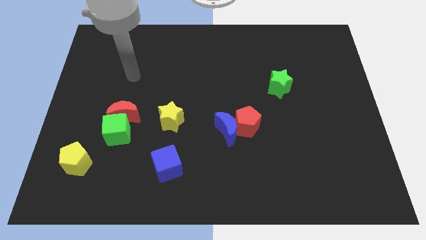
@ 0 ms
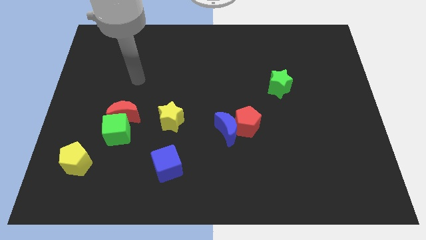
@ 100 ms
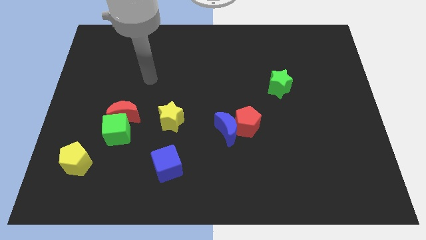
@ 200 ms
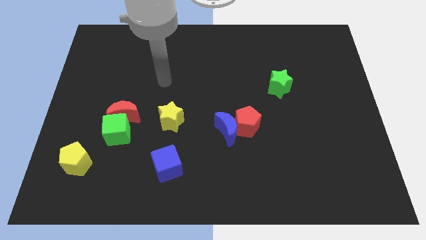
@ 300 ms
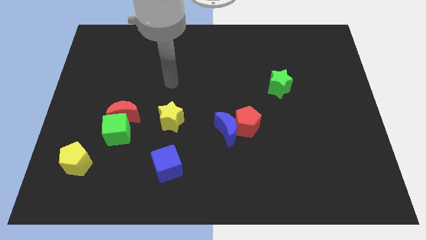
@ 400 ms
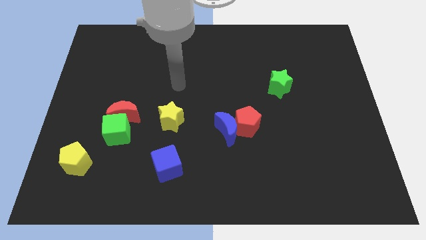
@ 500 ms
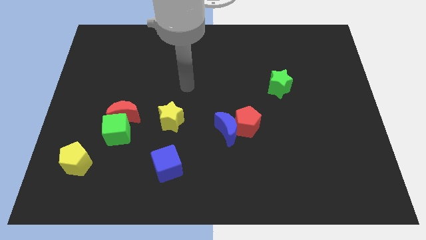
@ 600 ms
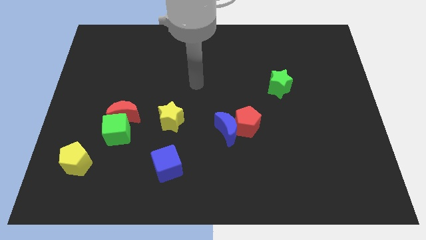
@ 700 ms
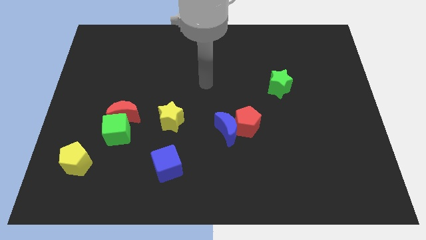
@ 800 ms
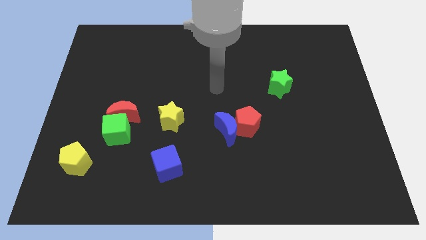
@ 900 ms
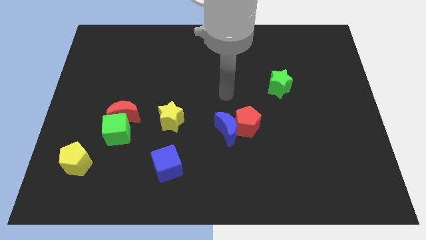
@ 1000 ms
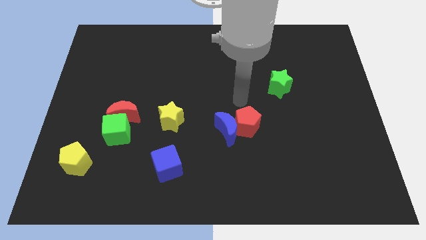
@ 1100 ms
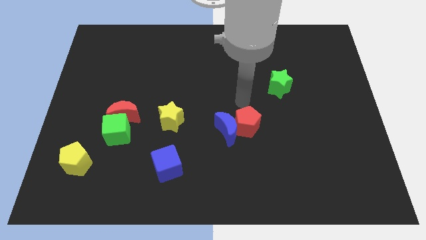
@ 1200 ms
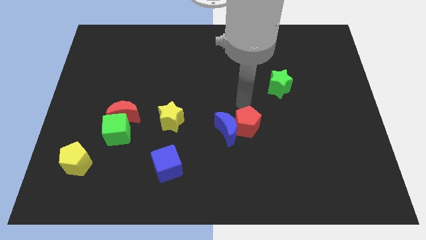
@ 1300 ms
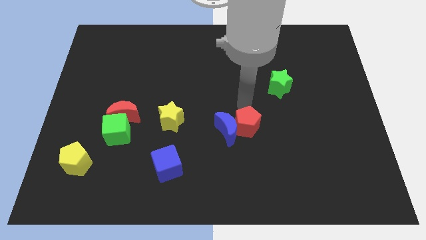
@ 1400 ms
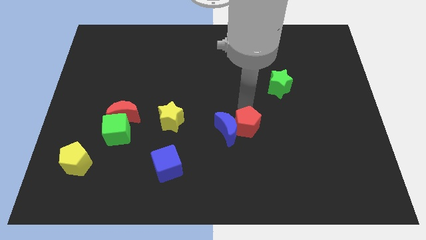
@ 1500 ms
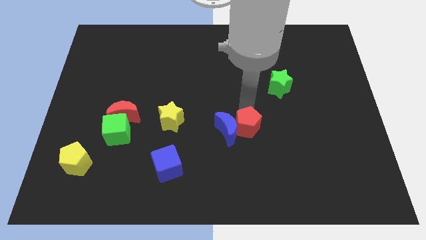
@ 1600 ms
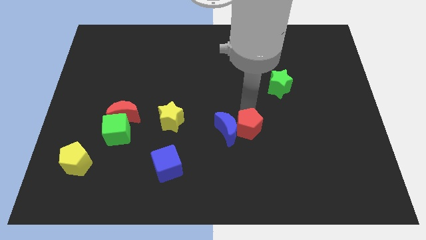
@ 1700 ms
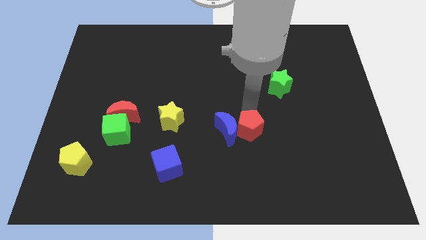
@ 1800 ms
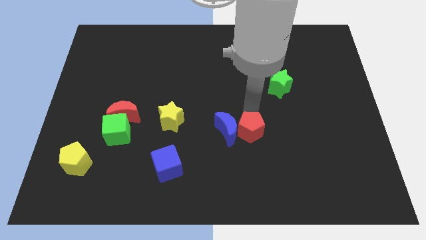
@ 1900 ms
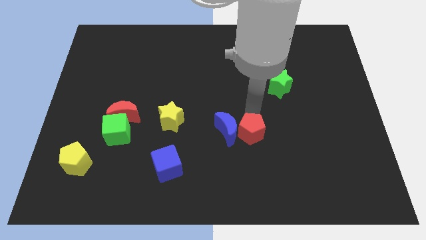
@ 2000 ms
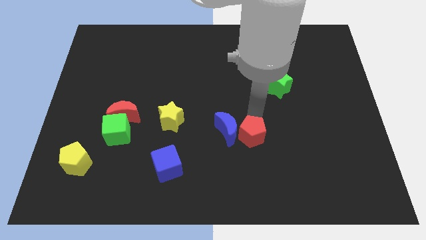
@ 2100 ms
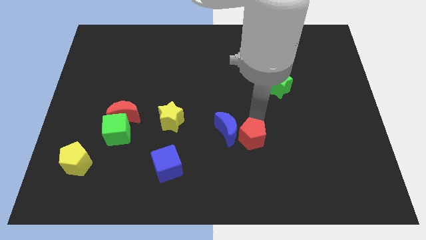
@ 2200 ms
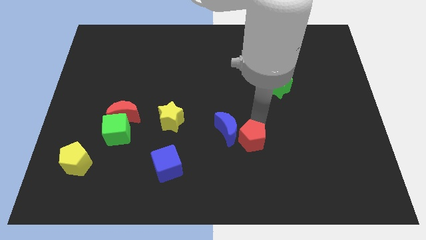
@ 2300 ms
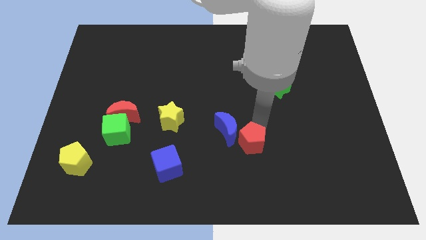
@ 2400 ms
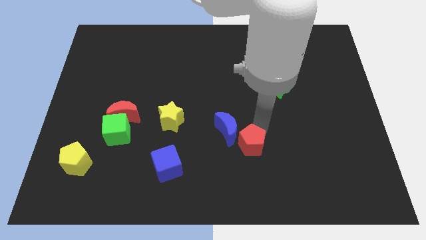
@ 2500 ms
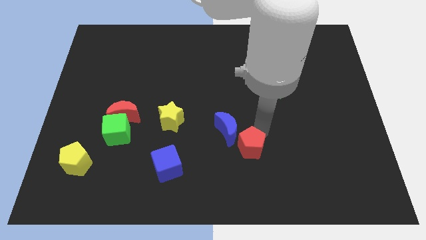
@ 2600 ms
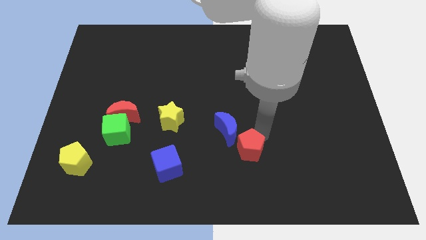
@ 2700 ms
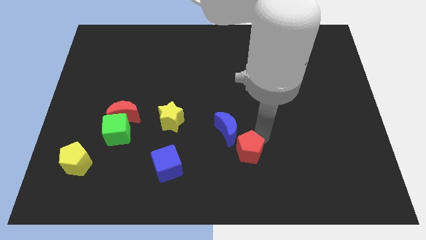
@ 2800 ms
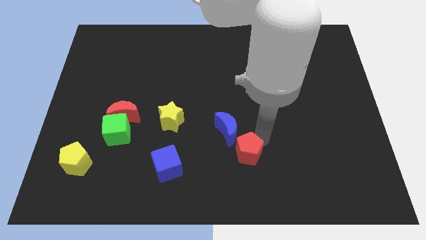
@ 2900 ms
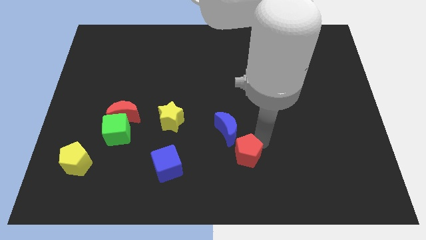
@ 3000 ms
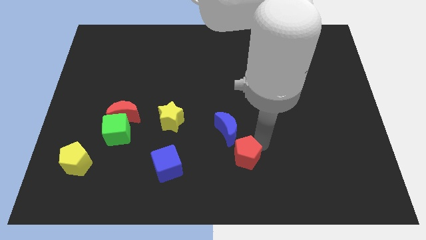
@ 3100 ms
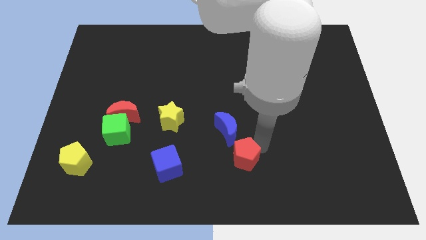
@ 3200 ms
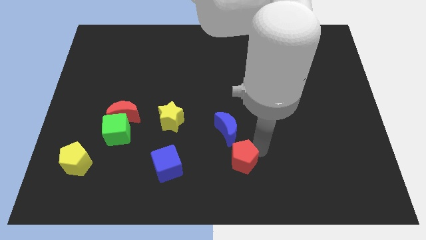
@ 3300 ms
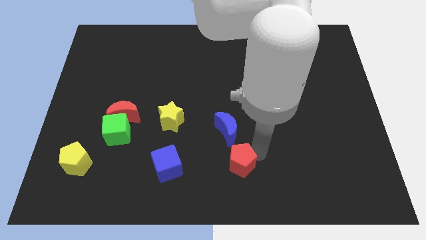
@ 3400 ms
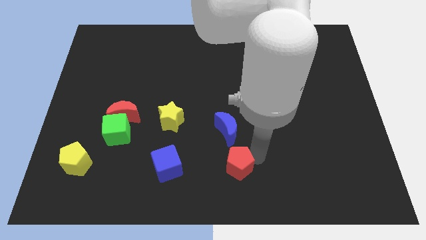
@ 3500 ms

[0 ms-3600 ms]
push the red pentagon down and to the left diagonally a bit

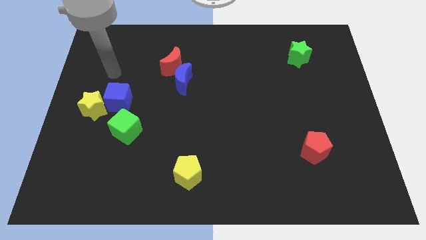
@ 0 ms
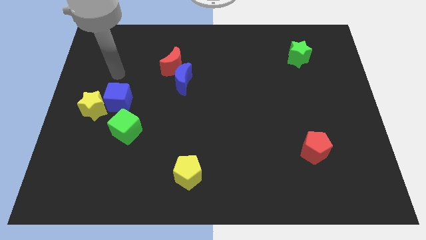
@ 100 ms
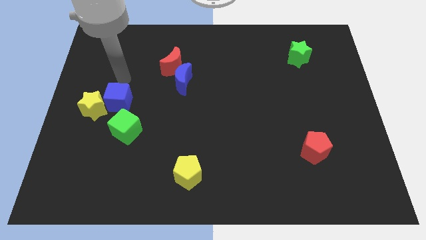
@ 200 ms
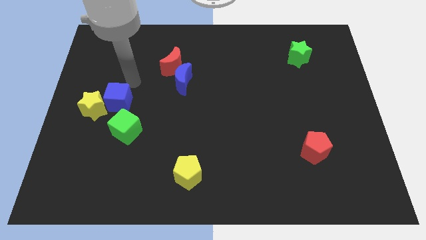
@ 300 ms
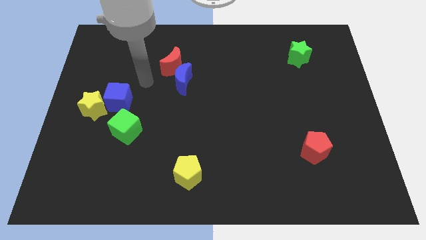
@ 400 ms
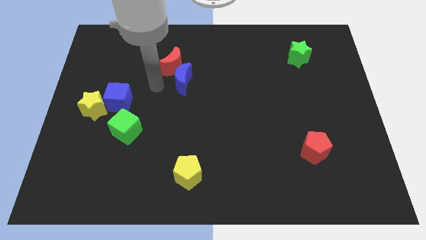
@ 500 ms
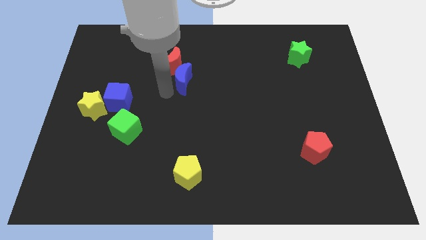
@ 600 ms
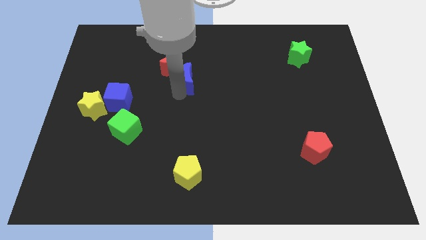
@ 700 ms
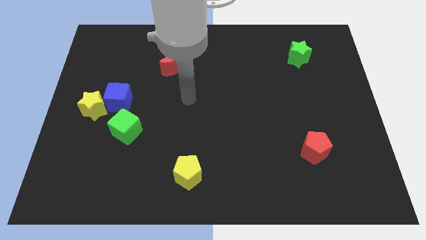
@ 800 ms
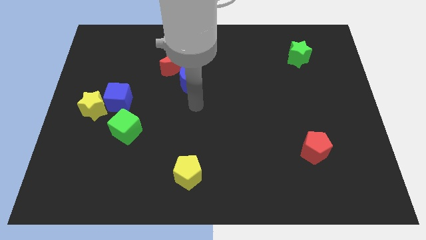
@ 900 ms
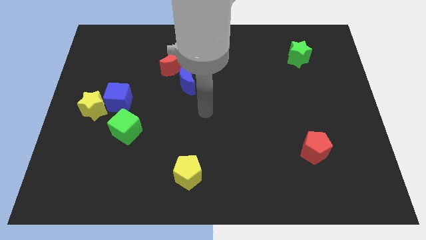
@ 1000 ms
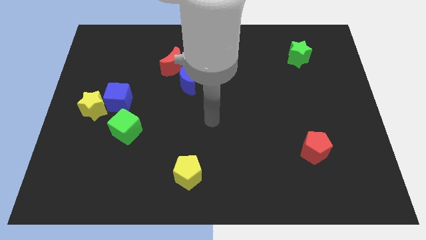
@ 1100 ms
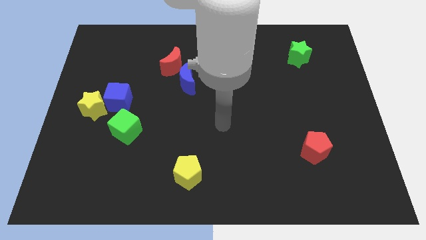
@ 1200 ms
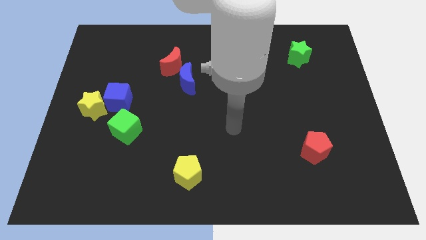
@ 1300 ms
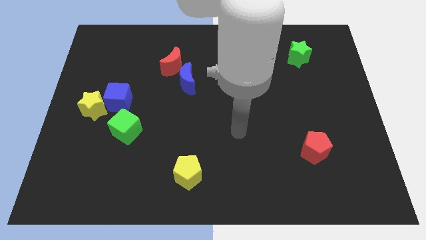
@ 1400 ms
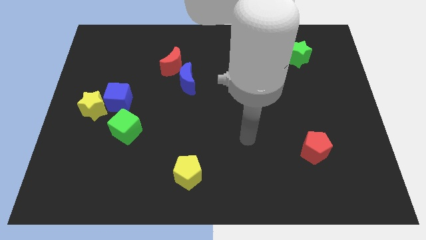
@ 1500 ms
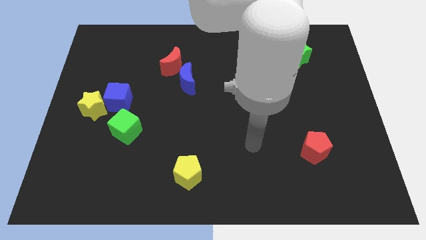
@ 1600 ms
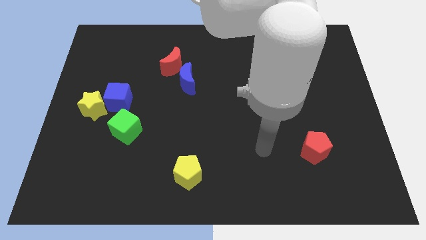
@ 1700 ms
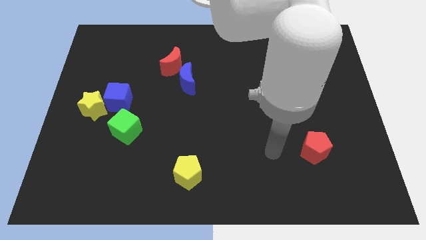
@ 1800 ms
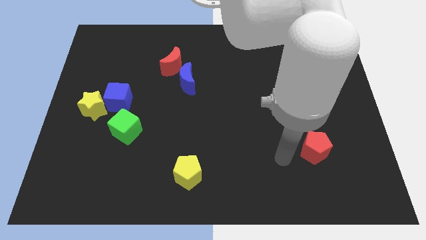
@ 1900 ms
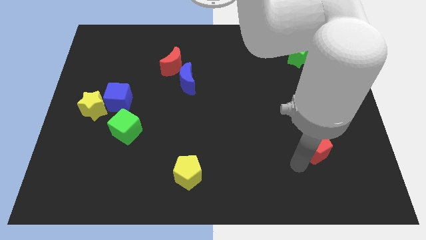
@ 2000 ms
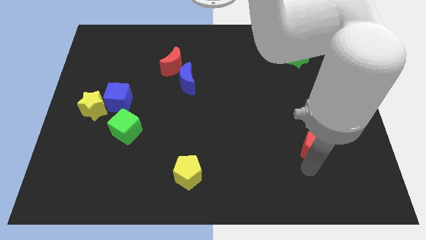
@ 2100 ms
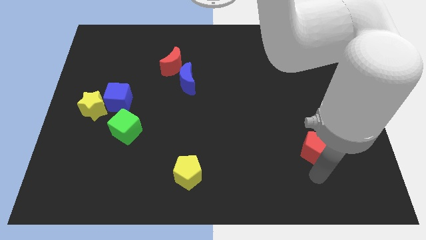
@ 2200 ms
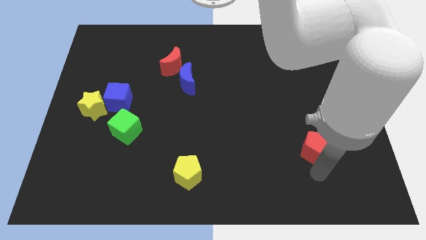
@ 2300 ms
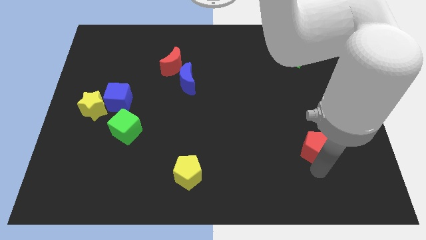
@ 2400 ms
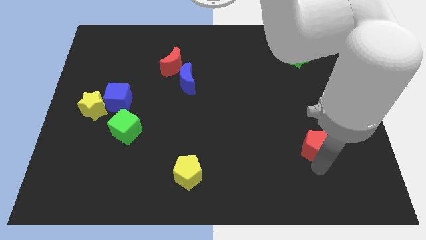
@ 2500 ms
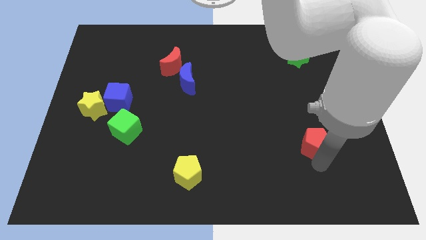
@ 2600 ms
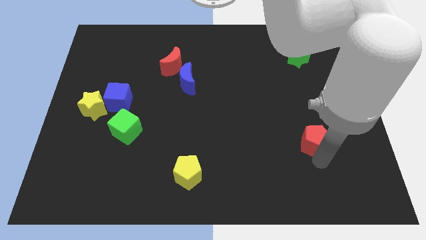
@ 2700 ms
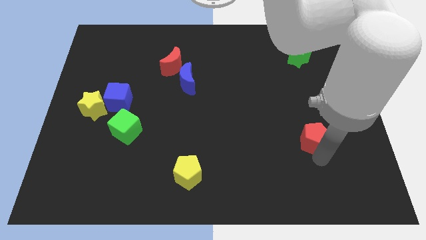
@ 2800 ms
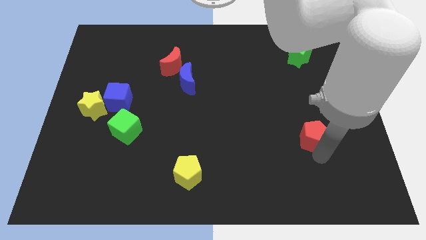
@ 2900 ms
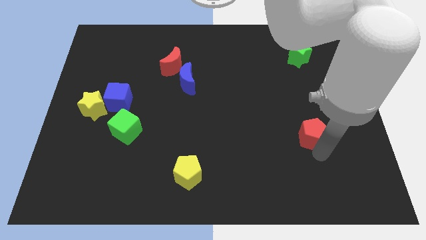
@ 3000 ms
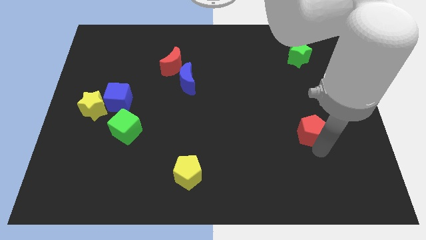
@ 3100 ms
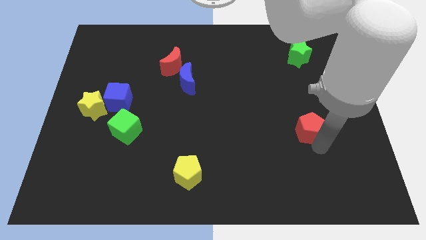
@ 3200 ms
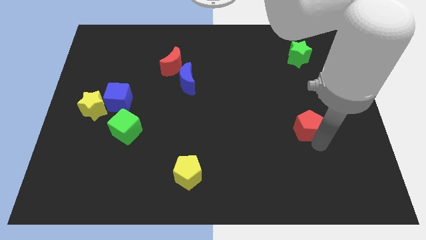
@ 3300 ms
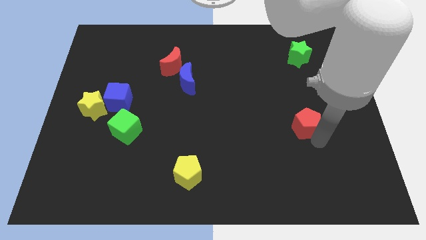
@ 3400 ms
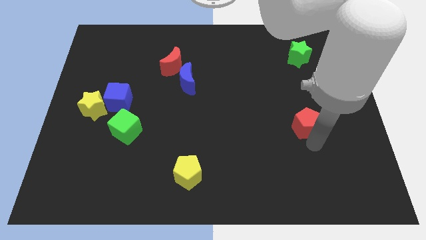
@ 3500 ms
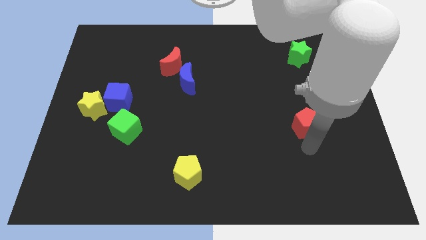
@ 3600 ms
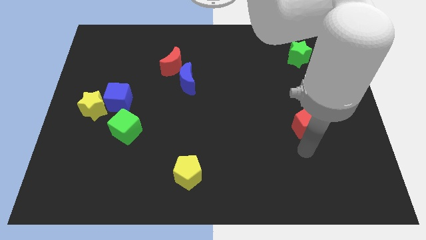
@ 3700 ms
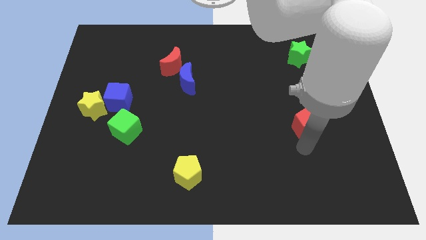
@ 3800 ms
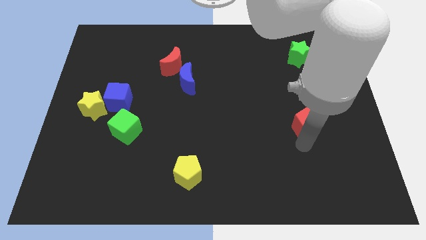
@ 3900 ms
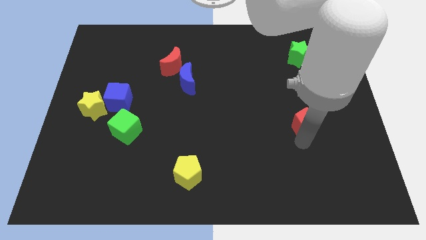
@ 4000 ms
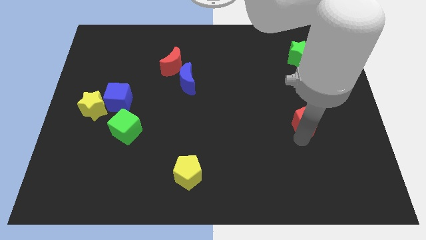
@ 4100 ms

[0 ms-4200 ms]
slightly move the red pentagon up
